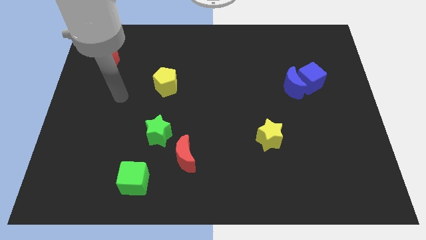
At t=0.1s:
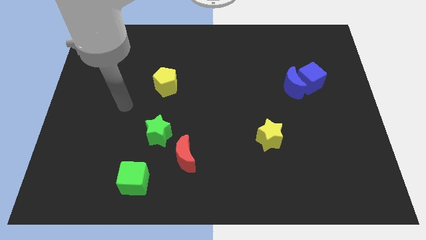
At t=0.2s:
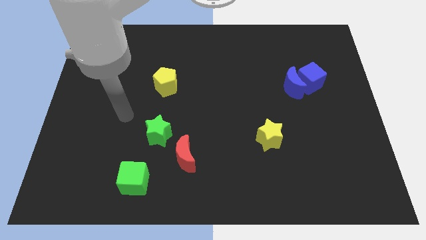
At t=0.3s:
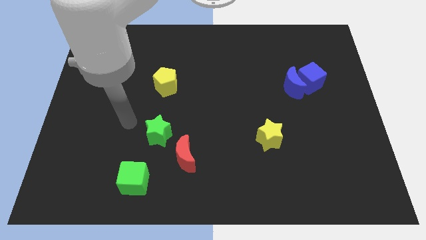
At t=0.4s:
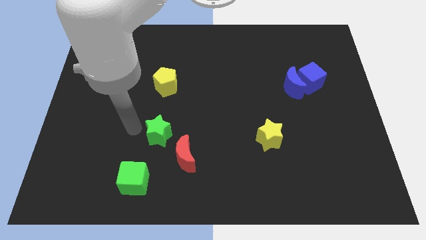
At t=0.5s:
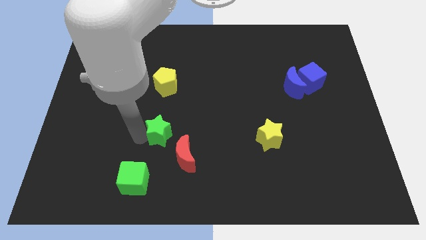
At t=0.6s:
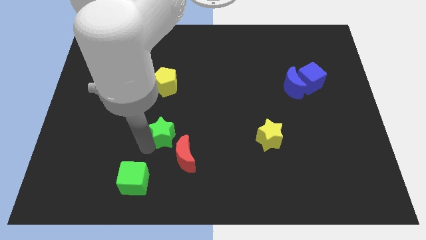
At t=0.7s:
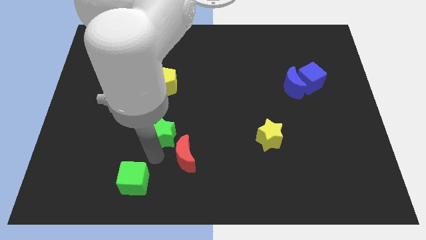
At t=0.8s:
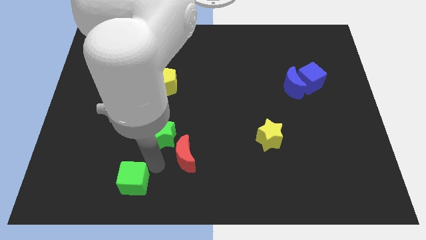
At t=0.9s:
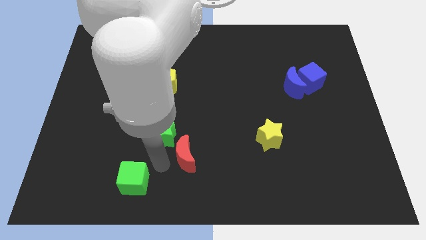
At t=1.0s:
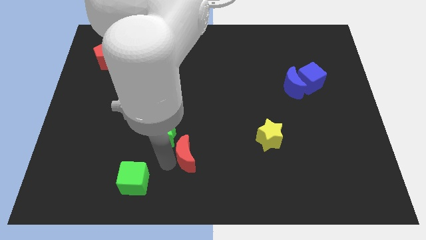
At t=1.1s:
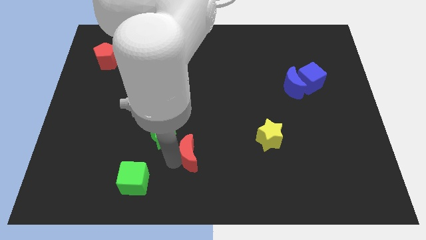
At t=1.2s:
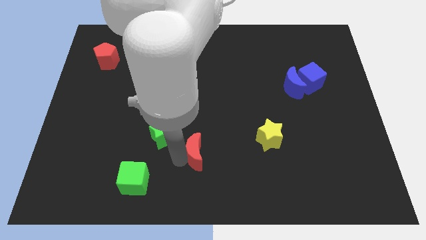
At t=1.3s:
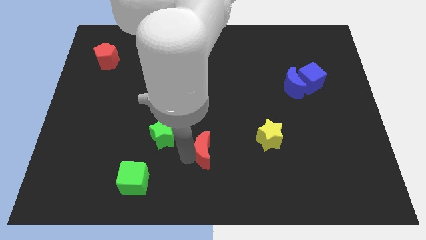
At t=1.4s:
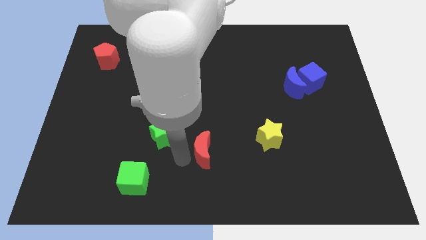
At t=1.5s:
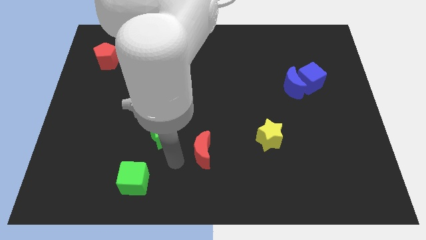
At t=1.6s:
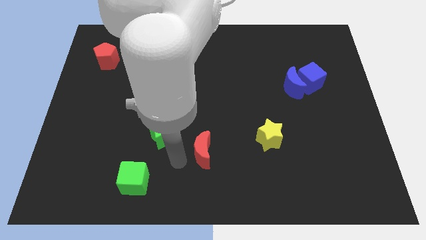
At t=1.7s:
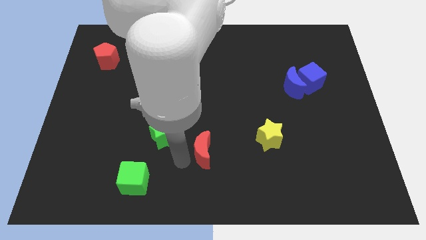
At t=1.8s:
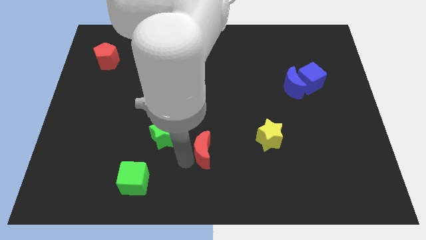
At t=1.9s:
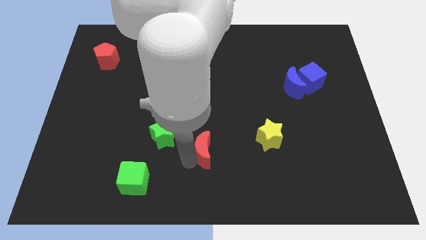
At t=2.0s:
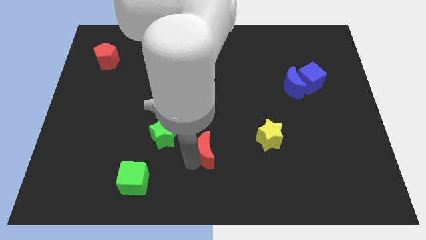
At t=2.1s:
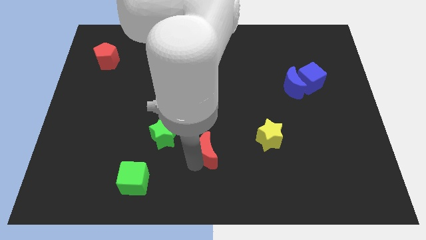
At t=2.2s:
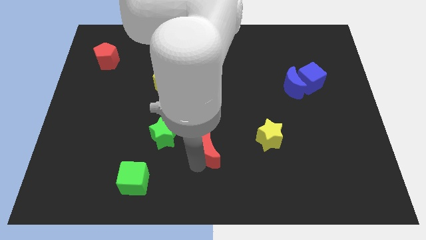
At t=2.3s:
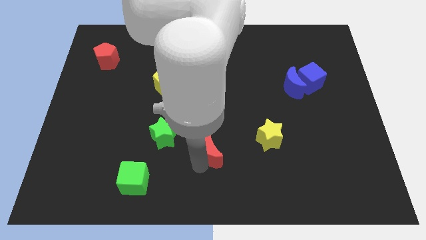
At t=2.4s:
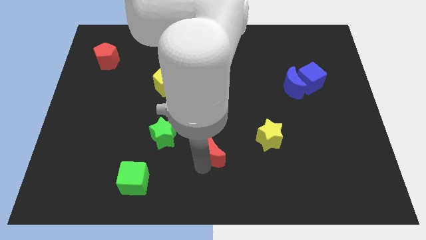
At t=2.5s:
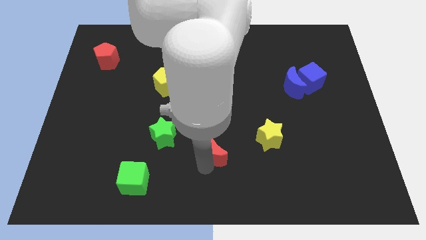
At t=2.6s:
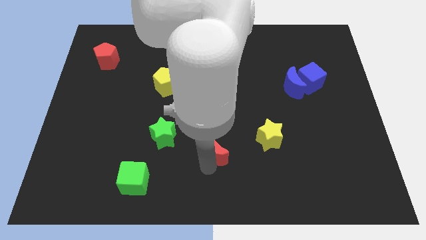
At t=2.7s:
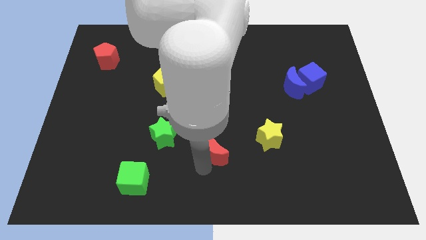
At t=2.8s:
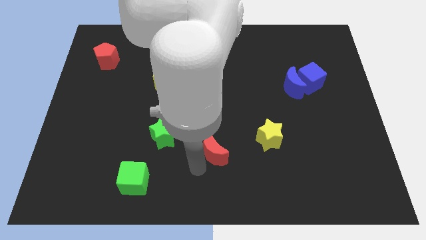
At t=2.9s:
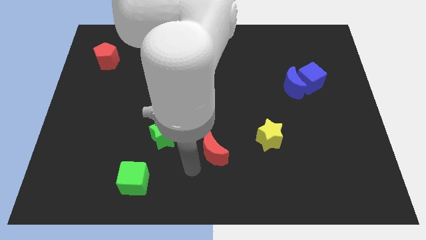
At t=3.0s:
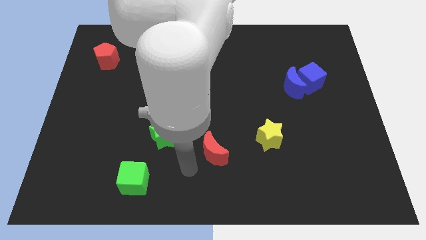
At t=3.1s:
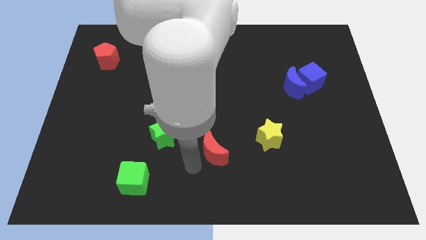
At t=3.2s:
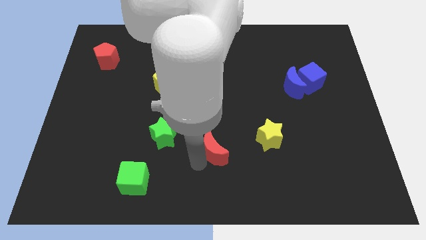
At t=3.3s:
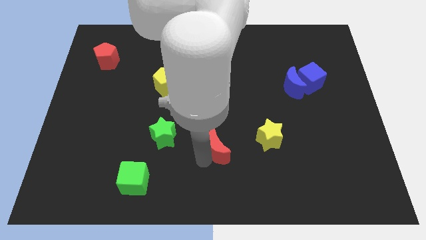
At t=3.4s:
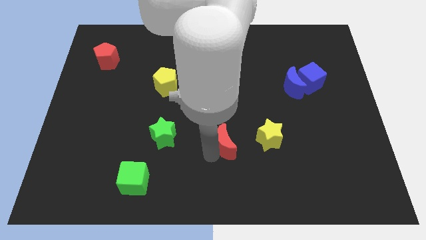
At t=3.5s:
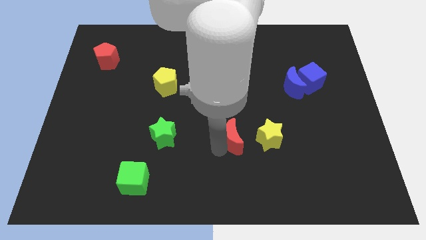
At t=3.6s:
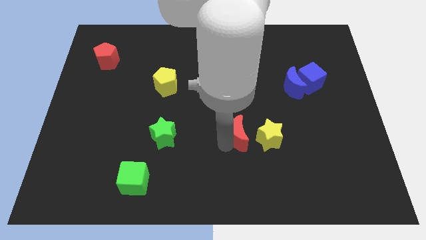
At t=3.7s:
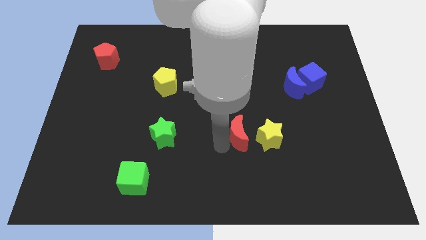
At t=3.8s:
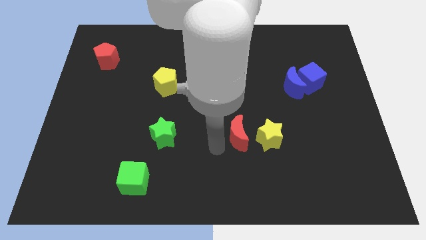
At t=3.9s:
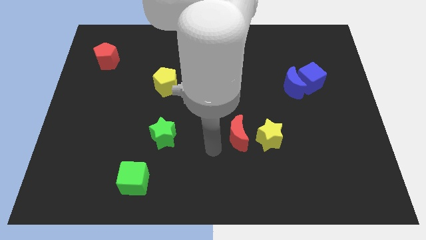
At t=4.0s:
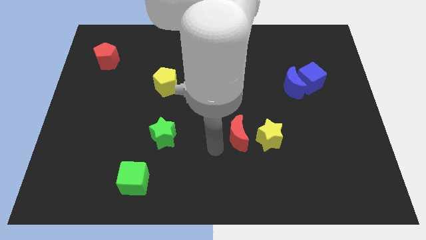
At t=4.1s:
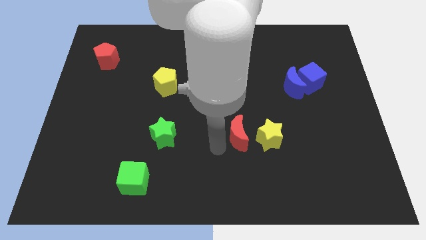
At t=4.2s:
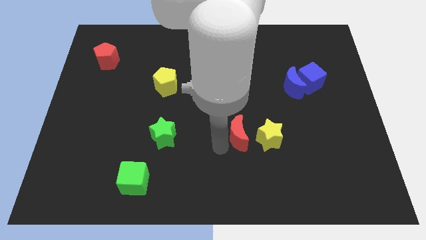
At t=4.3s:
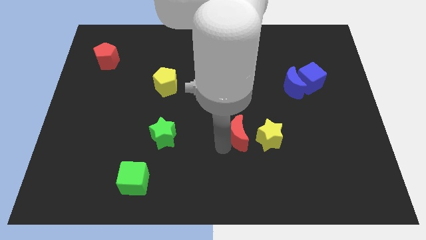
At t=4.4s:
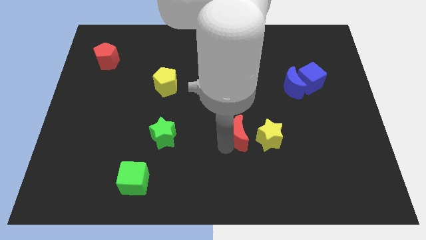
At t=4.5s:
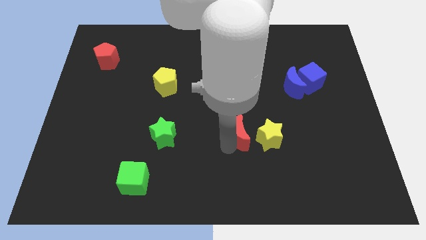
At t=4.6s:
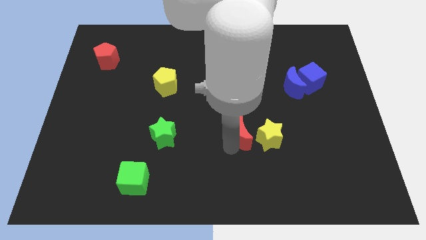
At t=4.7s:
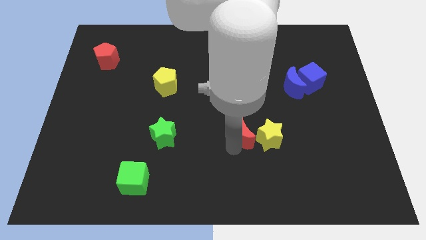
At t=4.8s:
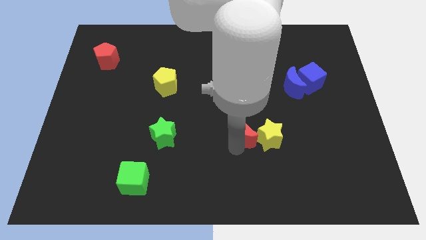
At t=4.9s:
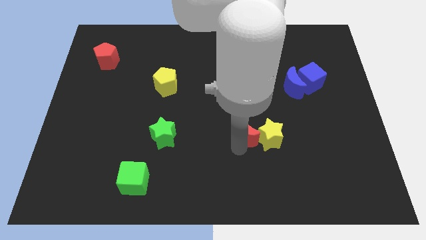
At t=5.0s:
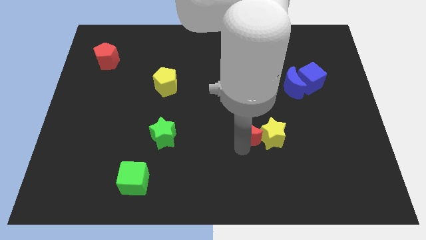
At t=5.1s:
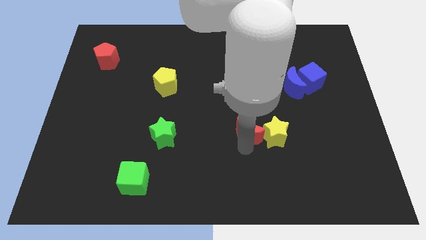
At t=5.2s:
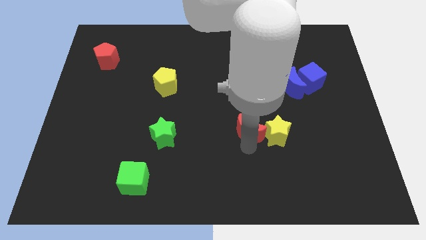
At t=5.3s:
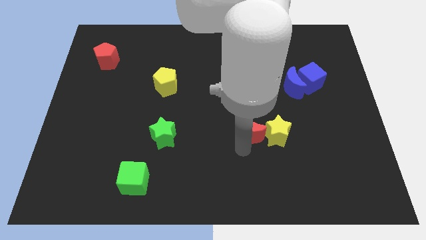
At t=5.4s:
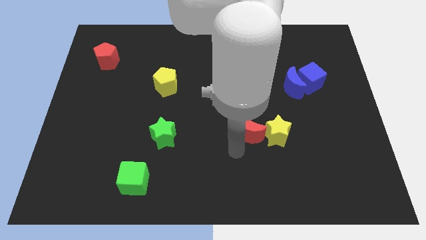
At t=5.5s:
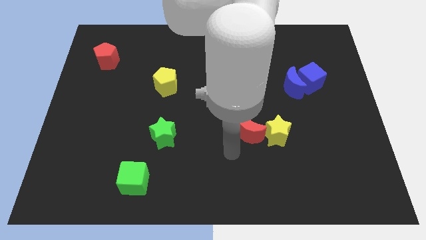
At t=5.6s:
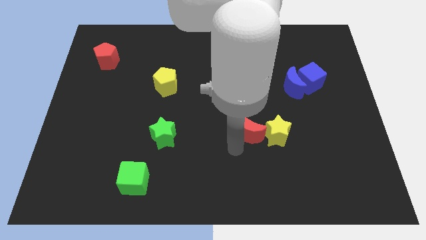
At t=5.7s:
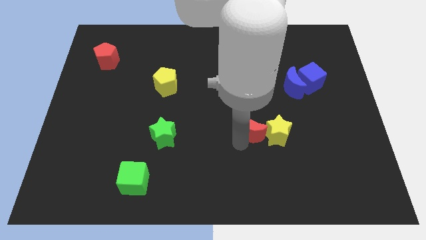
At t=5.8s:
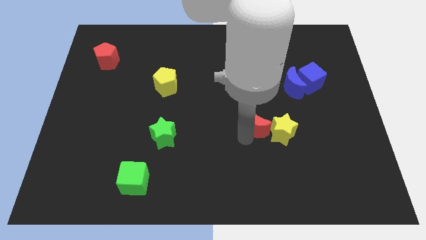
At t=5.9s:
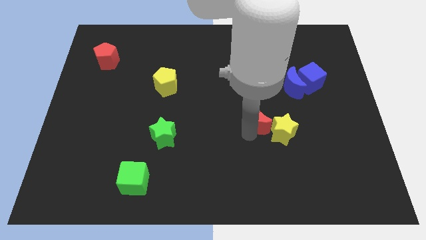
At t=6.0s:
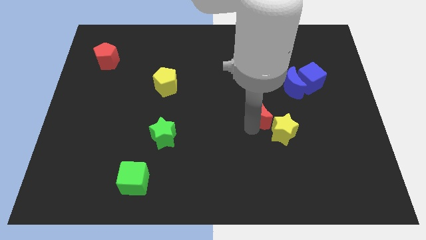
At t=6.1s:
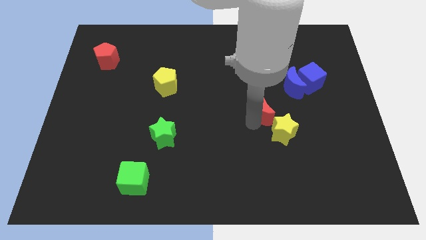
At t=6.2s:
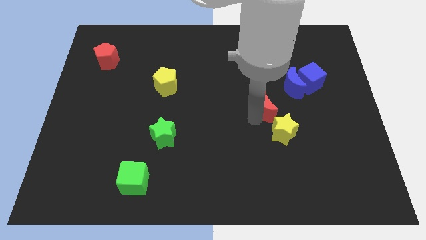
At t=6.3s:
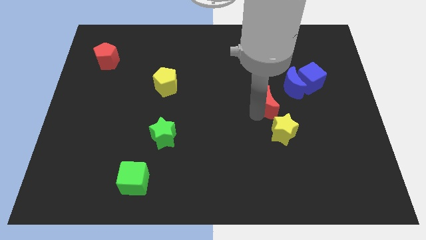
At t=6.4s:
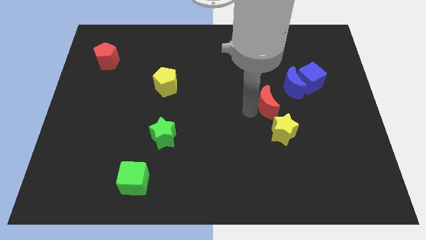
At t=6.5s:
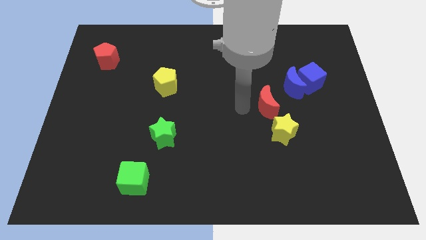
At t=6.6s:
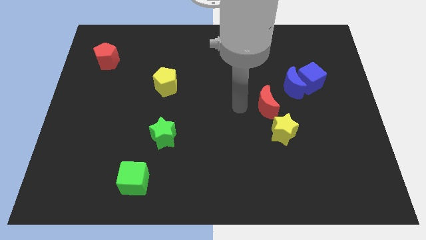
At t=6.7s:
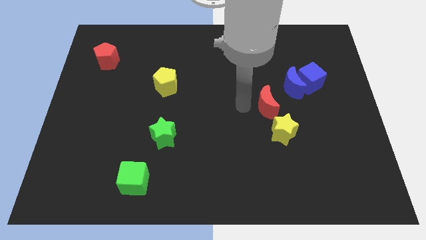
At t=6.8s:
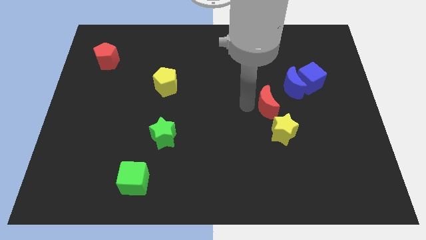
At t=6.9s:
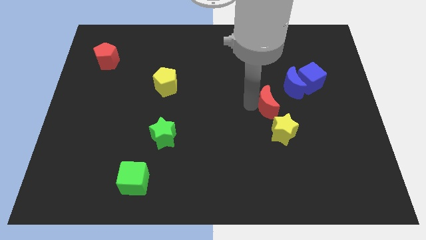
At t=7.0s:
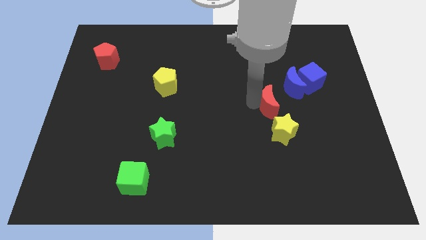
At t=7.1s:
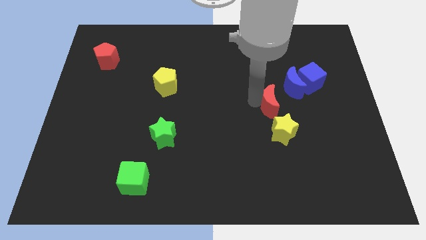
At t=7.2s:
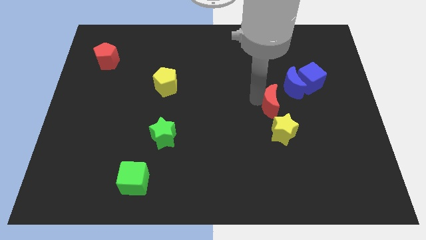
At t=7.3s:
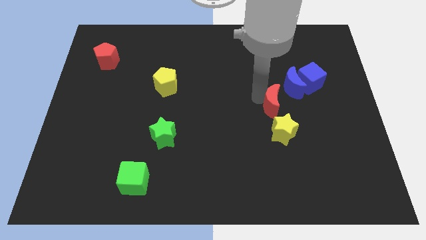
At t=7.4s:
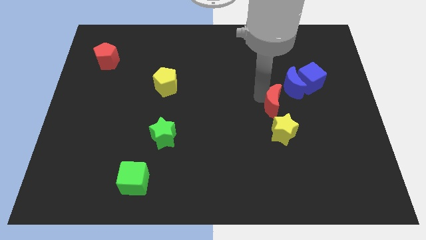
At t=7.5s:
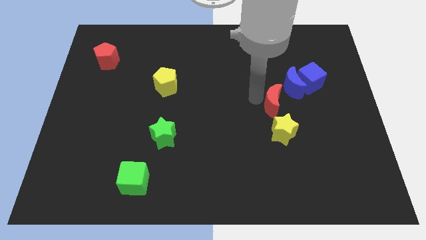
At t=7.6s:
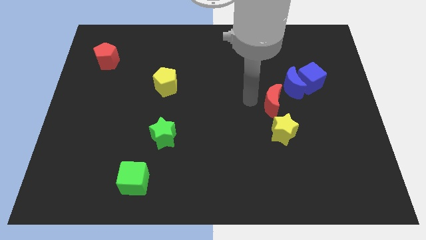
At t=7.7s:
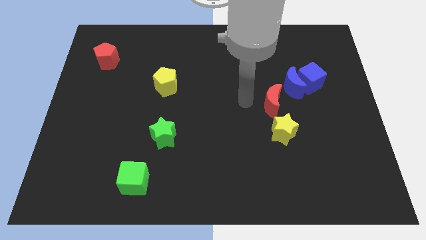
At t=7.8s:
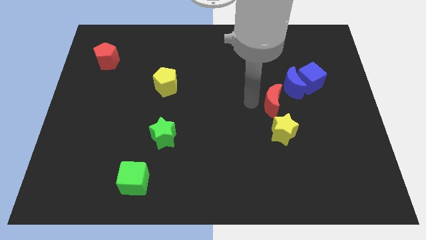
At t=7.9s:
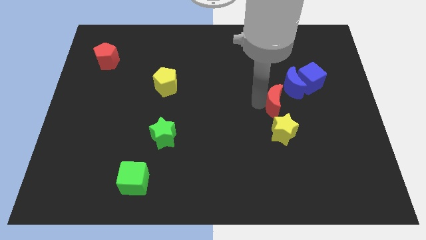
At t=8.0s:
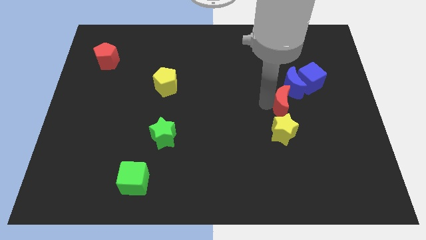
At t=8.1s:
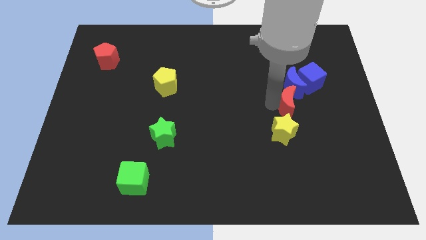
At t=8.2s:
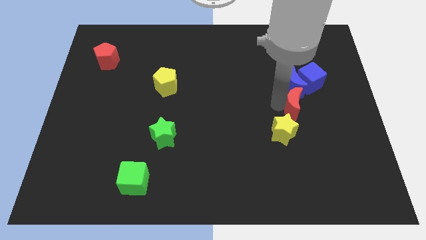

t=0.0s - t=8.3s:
put the red moon to the bottom right side of the blue moon
